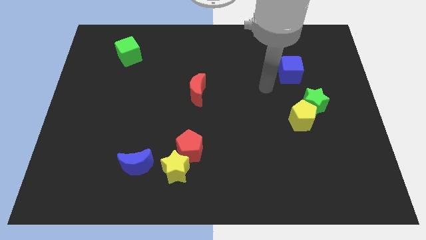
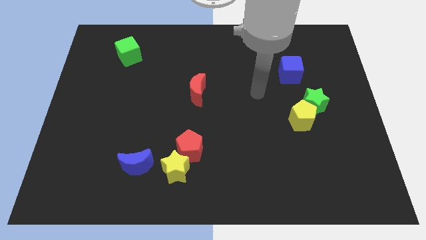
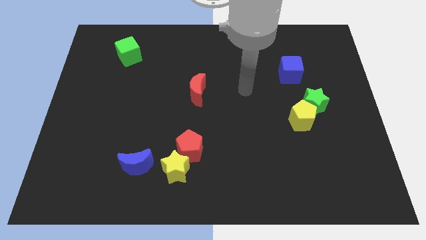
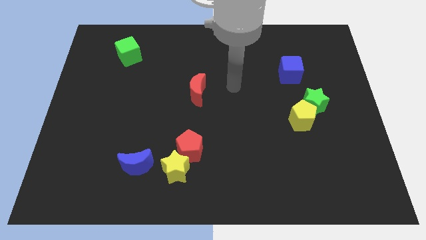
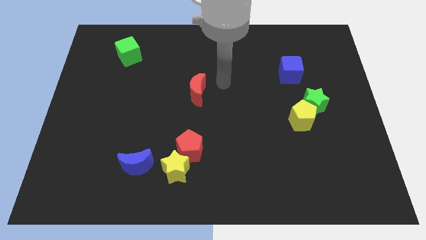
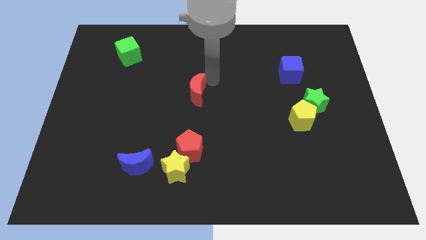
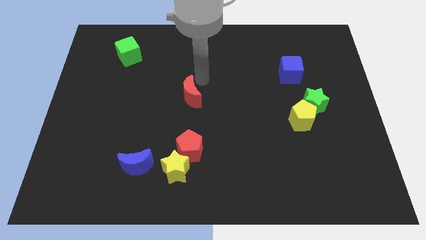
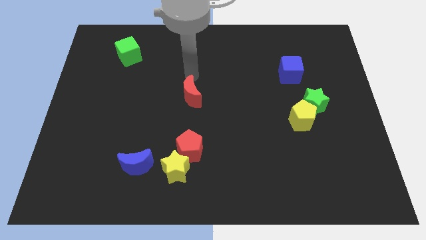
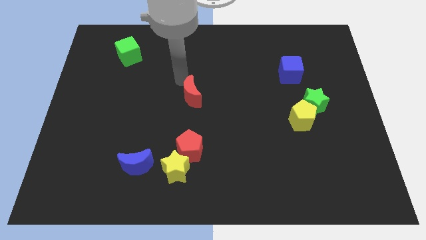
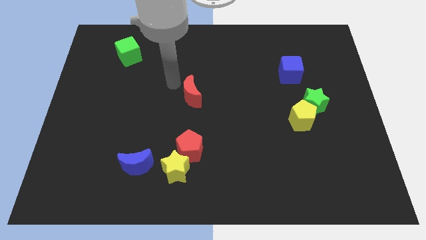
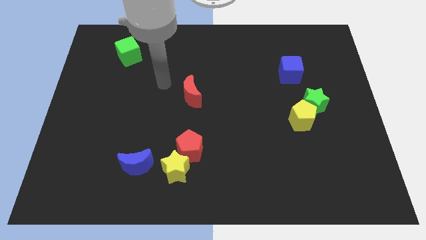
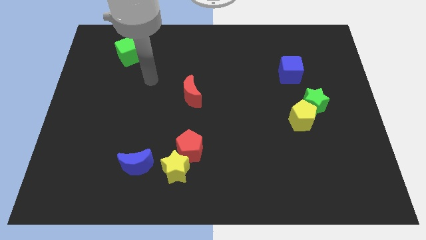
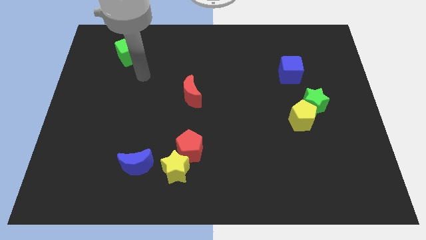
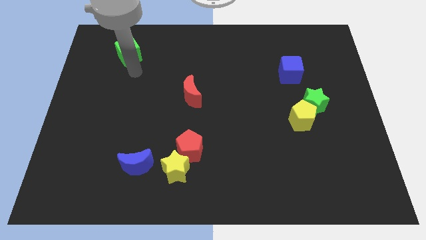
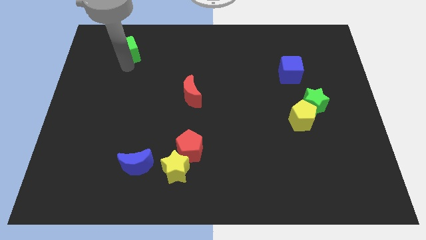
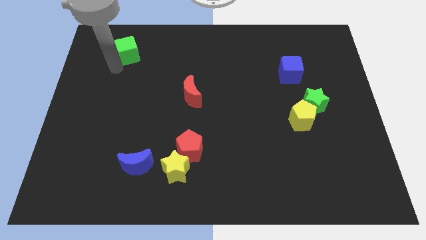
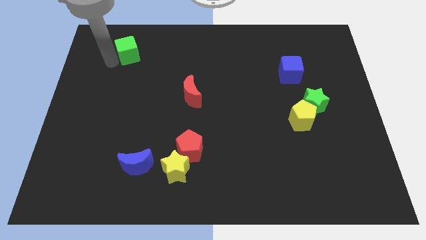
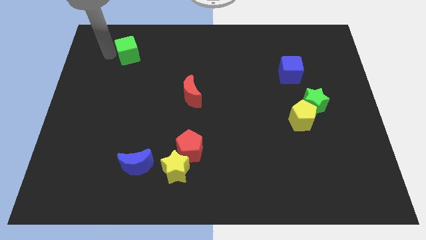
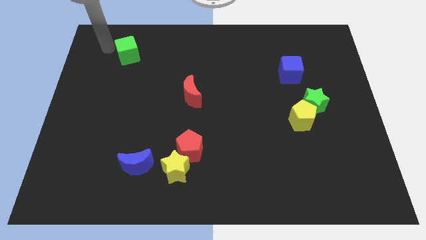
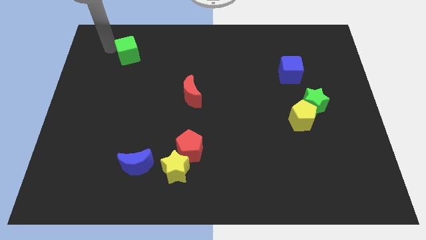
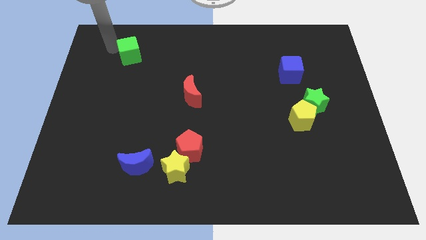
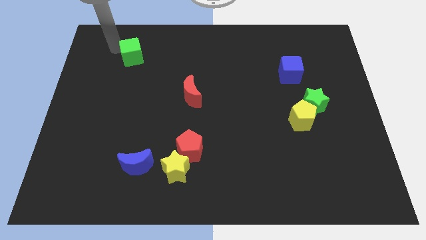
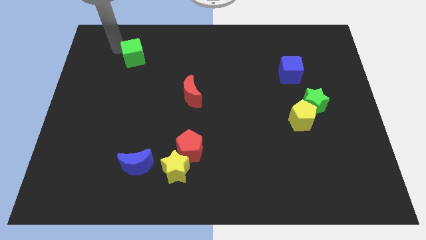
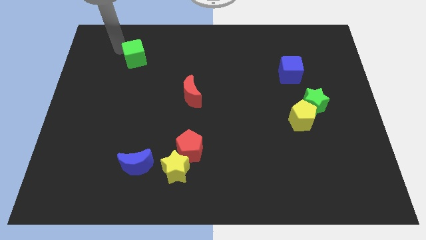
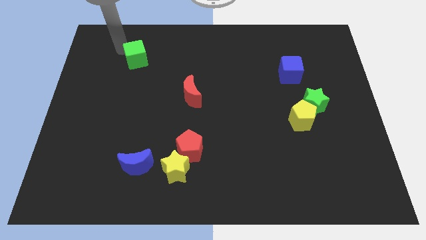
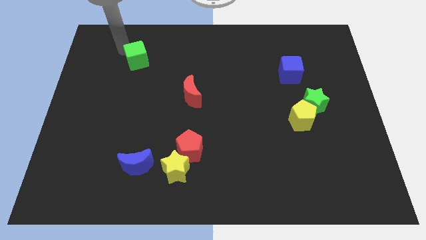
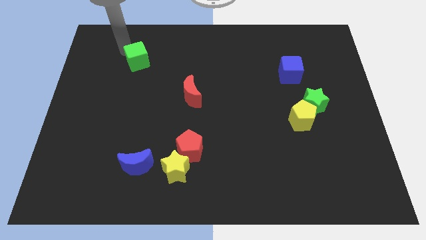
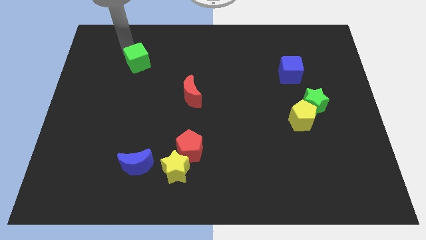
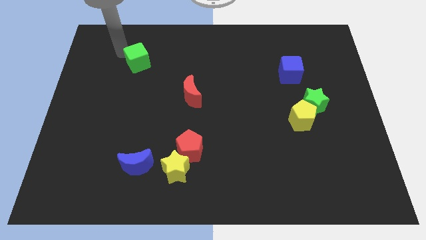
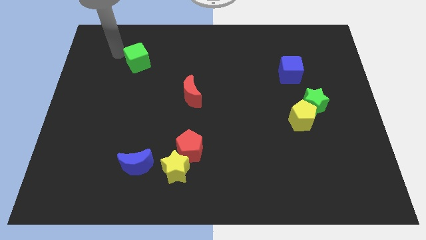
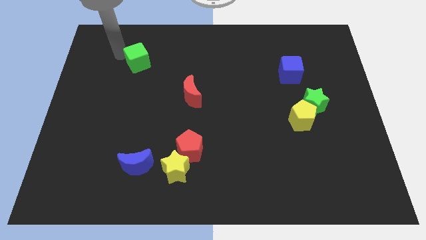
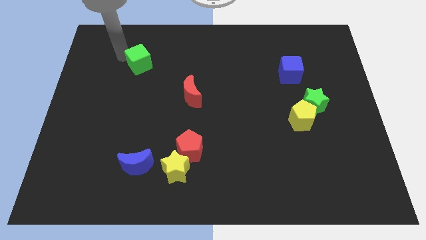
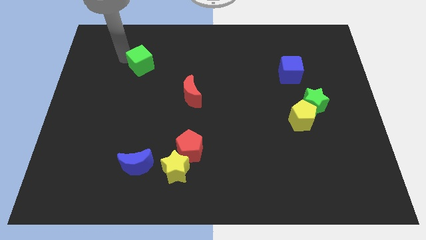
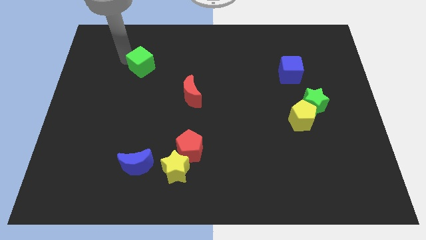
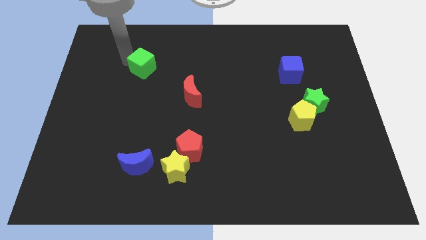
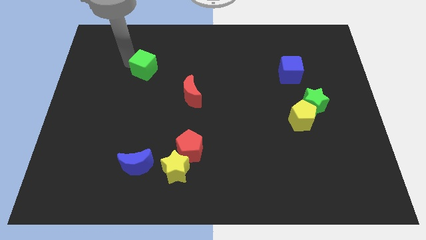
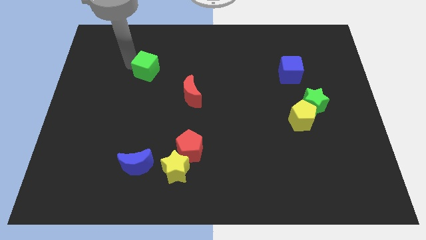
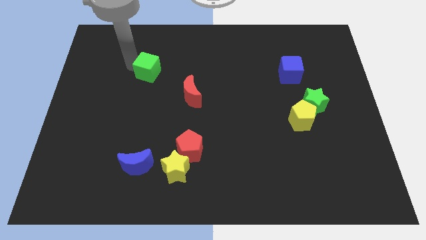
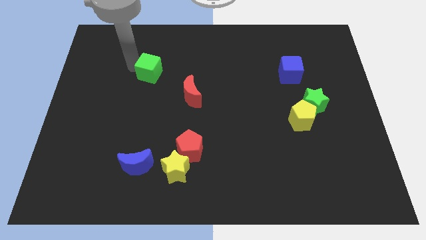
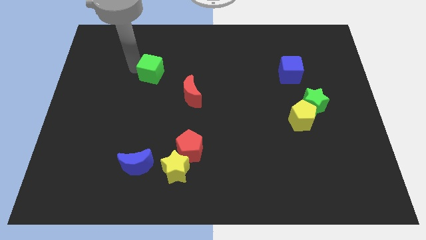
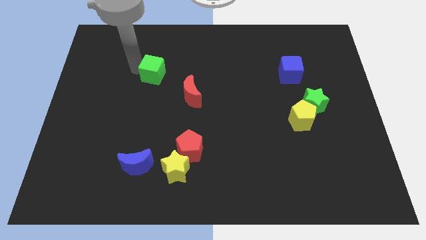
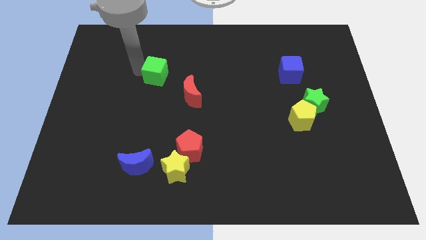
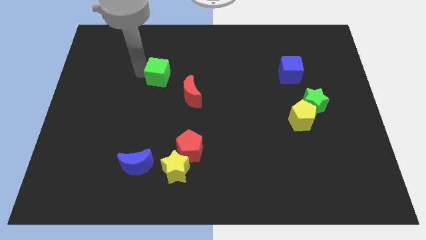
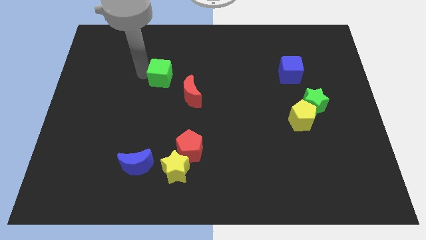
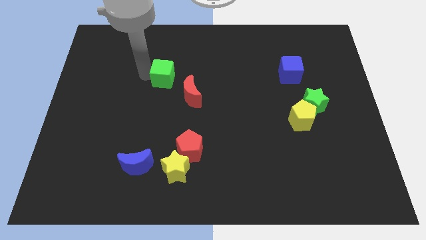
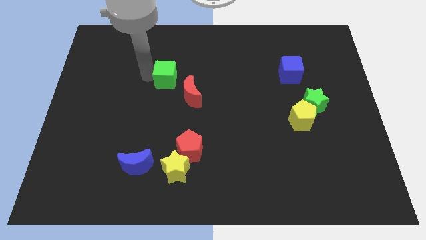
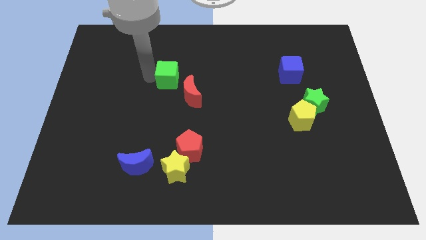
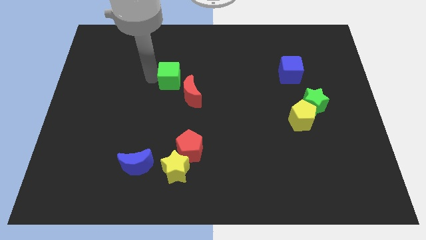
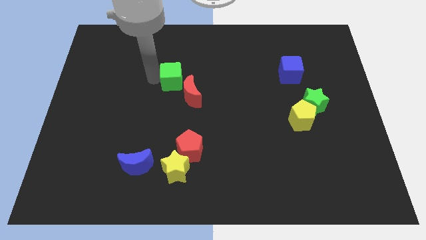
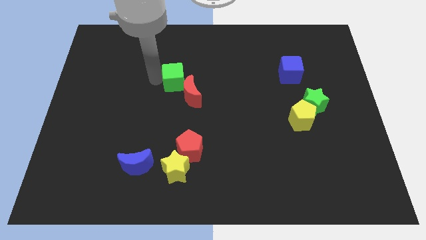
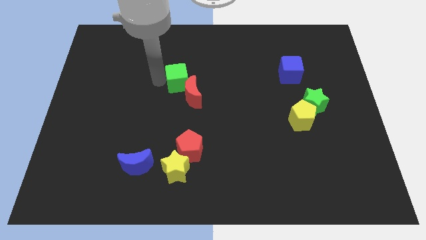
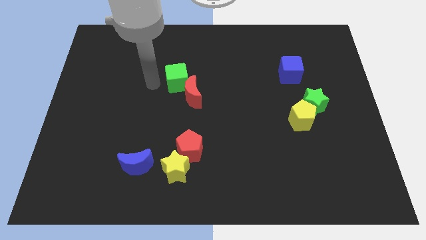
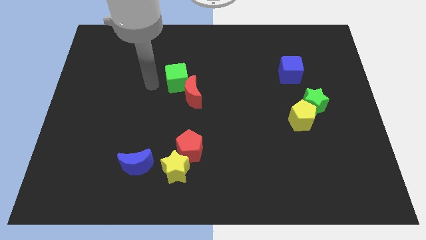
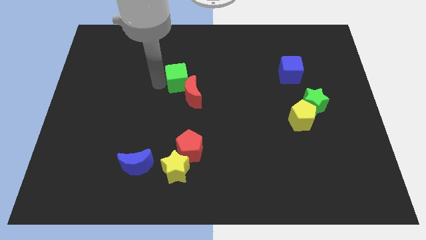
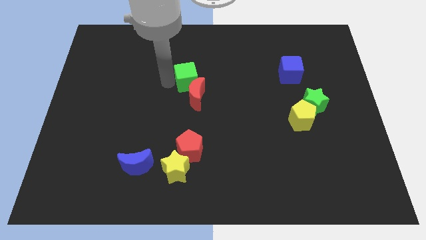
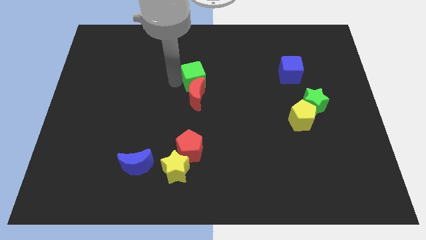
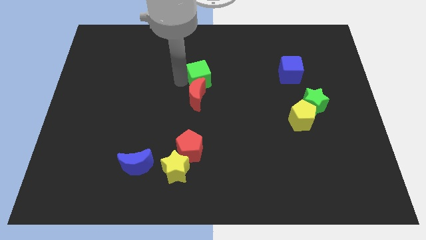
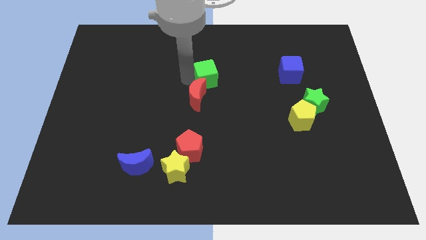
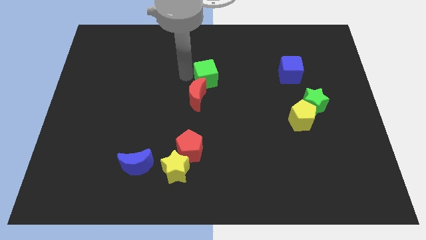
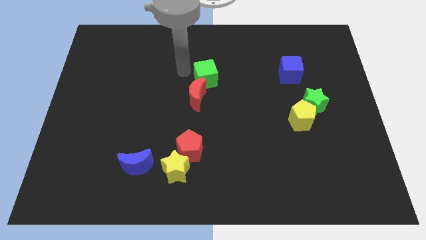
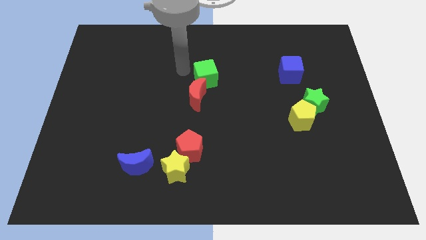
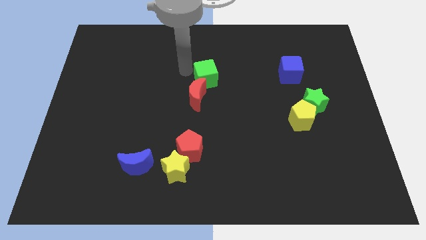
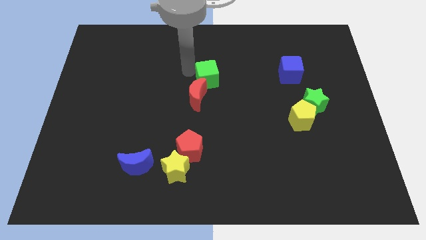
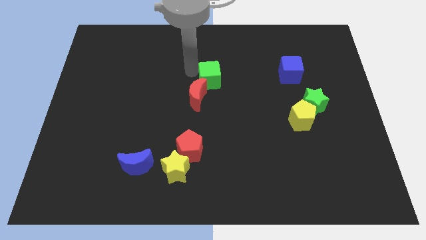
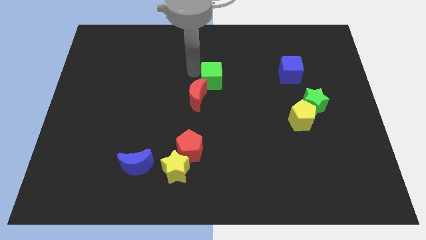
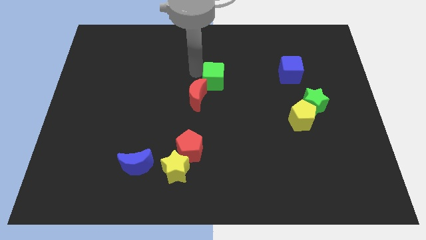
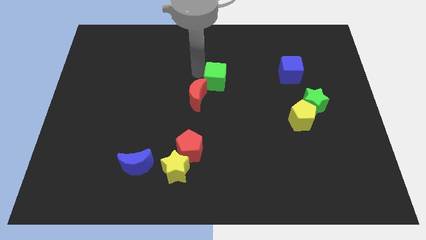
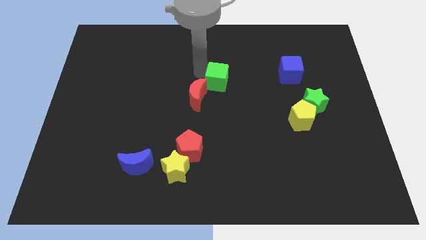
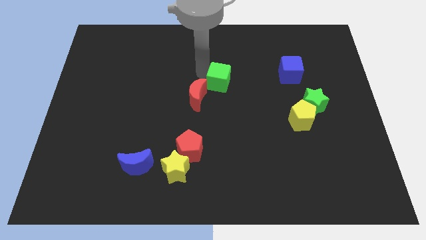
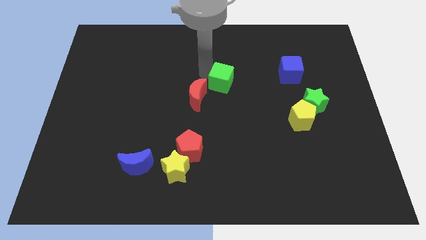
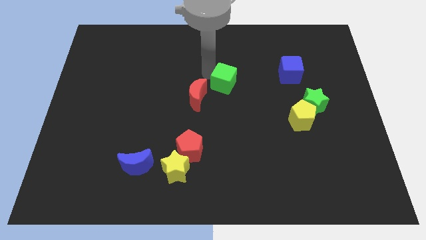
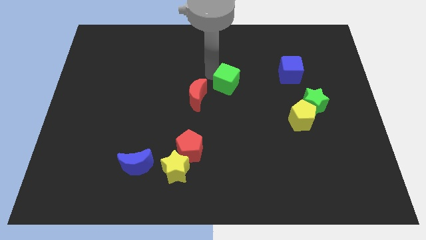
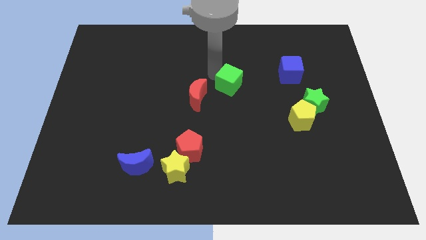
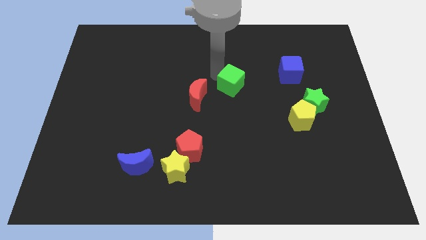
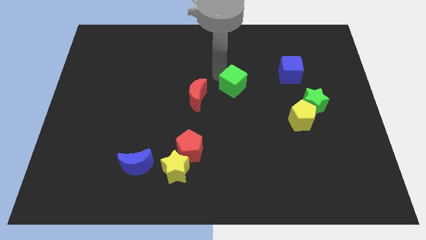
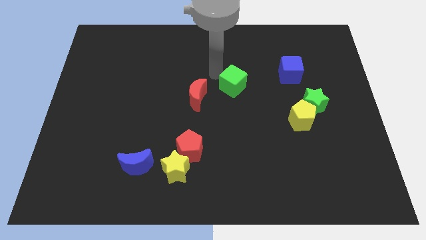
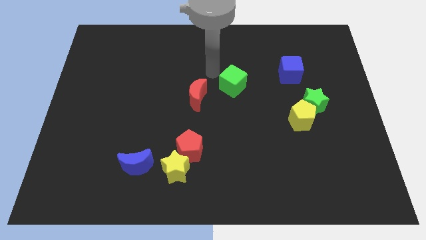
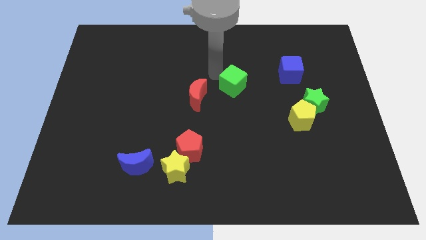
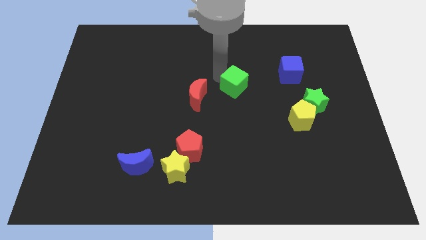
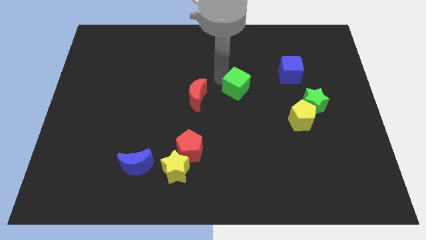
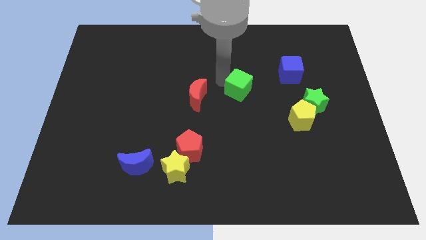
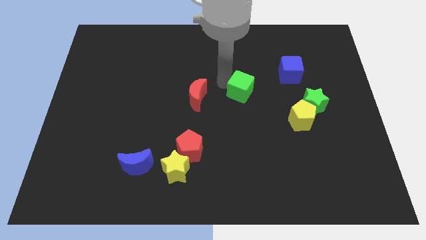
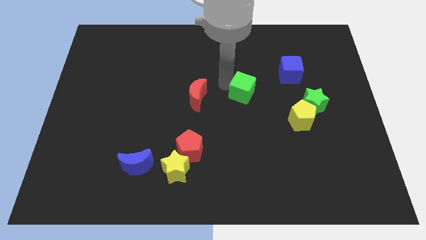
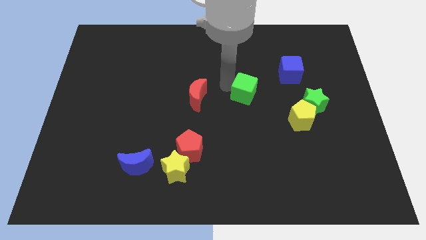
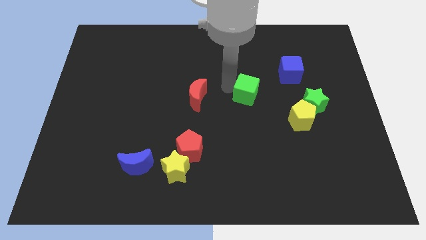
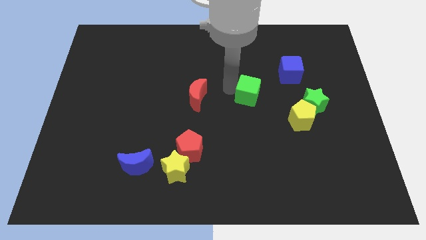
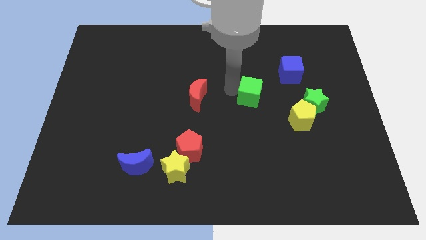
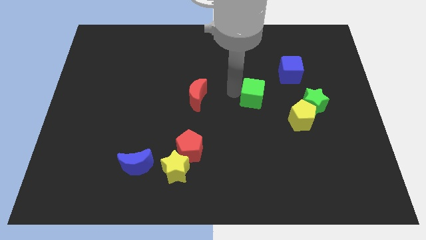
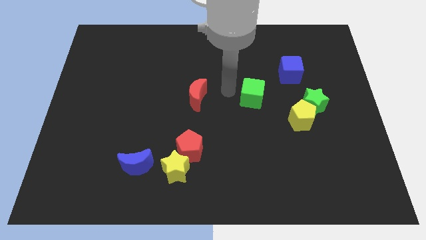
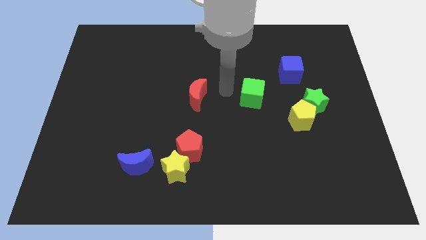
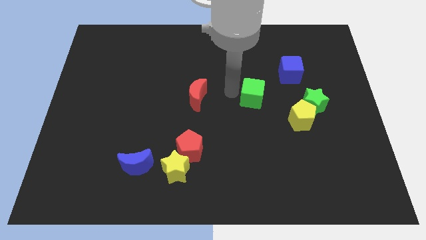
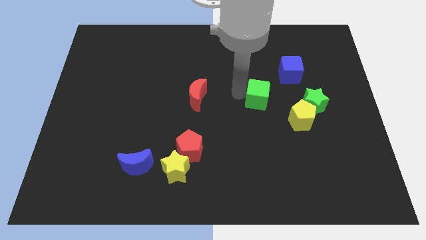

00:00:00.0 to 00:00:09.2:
push the green cube diagonally up and to the left of the yellow pentagon
